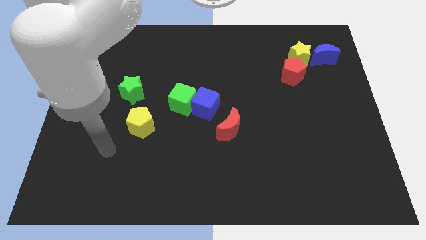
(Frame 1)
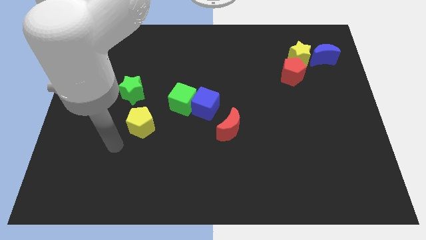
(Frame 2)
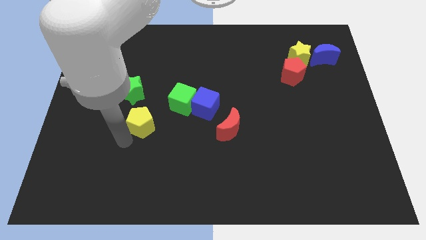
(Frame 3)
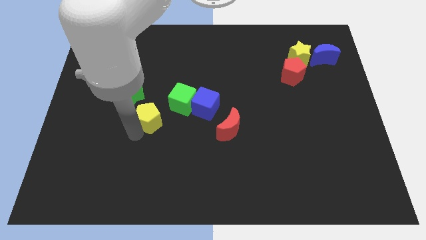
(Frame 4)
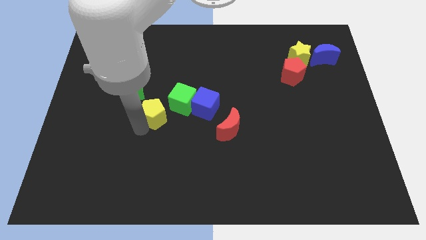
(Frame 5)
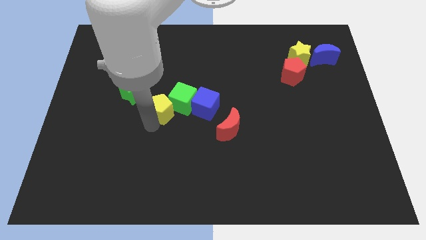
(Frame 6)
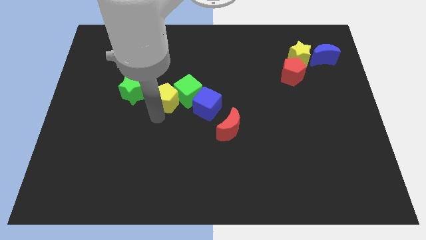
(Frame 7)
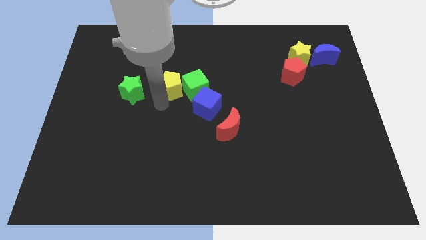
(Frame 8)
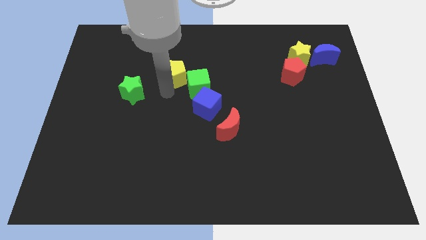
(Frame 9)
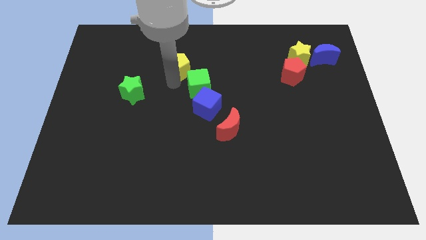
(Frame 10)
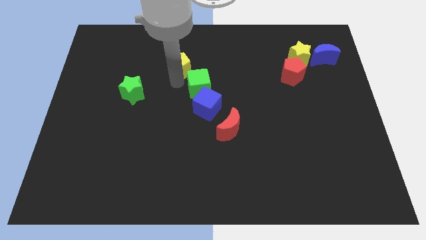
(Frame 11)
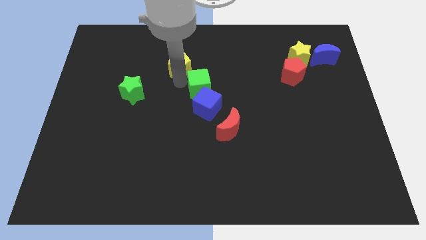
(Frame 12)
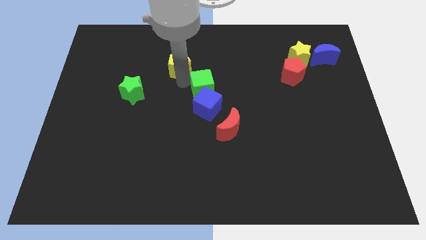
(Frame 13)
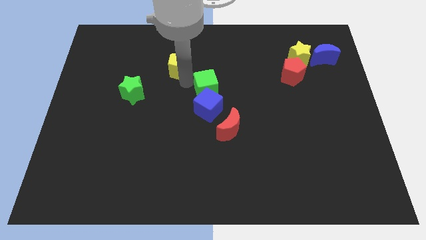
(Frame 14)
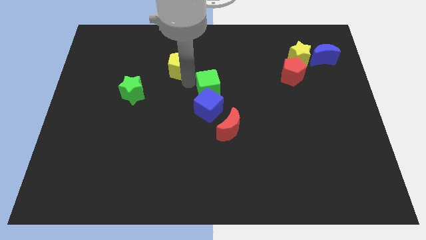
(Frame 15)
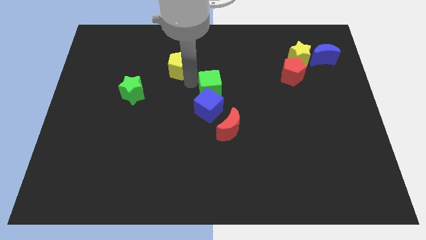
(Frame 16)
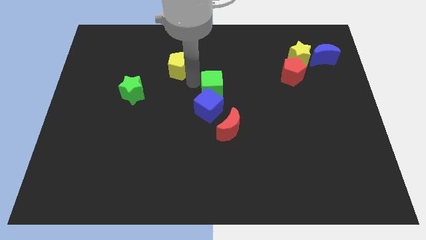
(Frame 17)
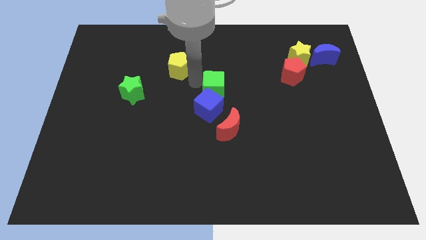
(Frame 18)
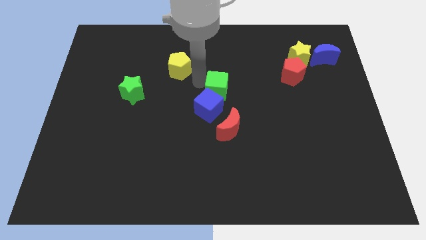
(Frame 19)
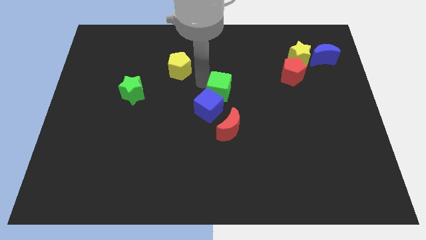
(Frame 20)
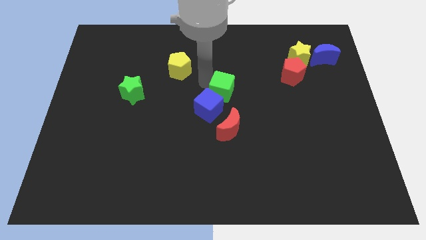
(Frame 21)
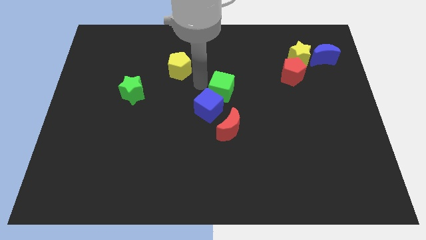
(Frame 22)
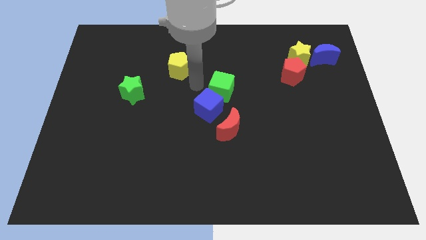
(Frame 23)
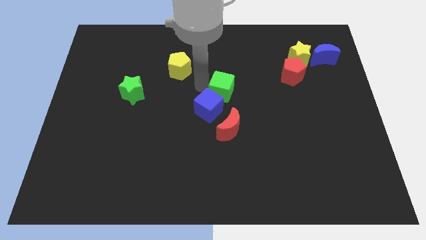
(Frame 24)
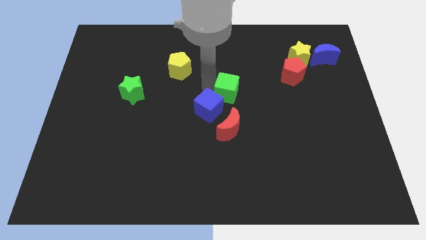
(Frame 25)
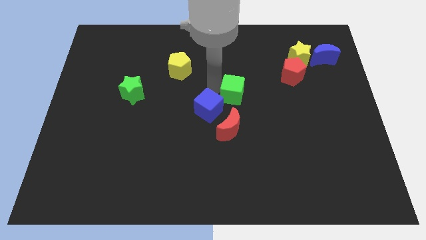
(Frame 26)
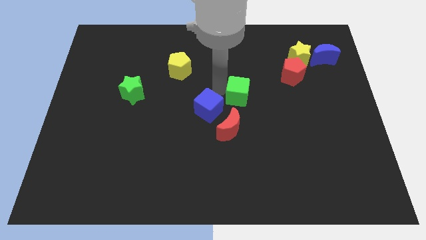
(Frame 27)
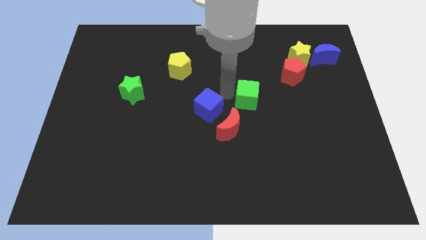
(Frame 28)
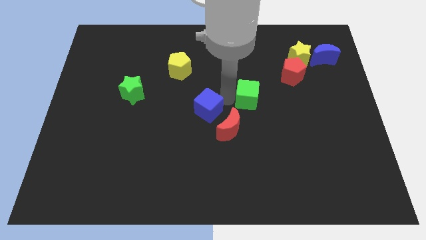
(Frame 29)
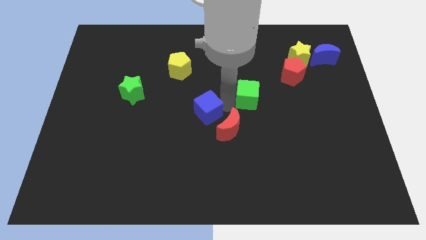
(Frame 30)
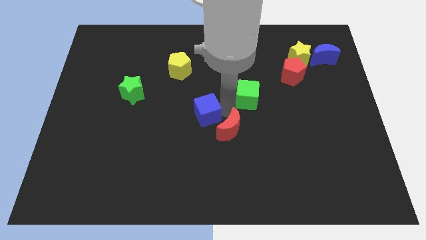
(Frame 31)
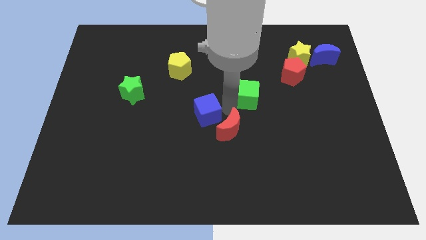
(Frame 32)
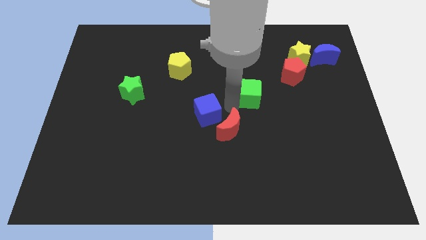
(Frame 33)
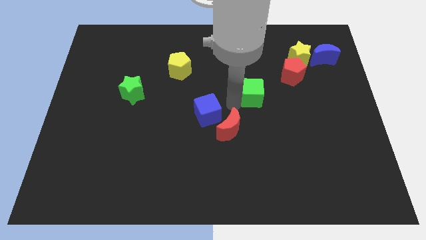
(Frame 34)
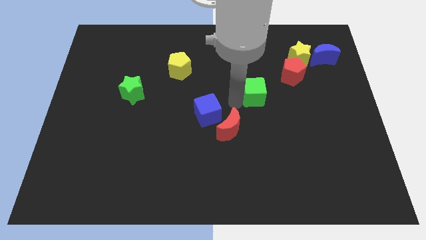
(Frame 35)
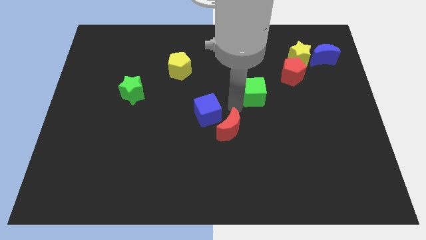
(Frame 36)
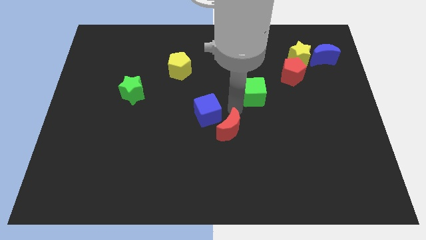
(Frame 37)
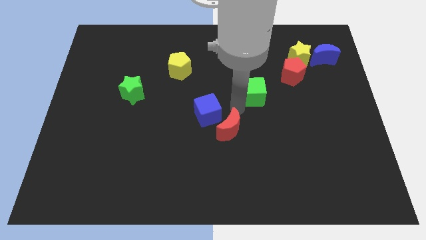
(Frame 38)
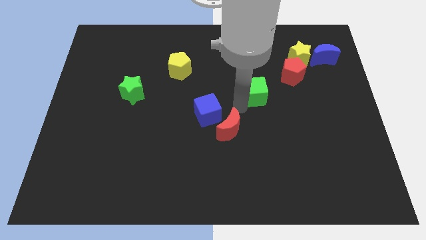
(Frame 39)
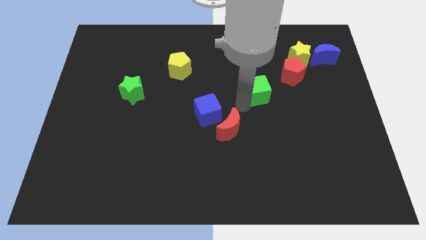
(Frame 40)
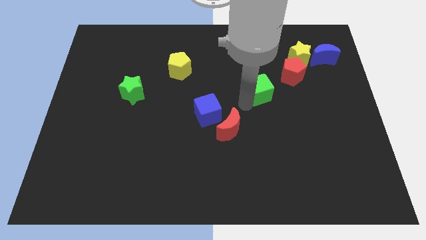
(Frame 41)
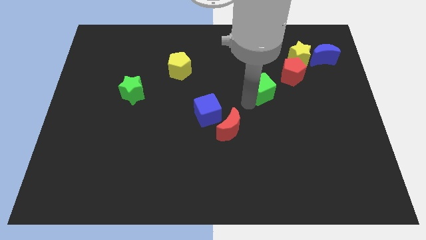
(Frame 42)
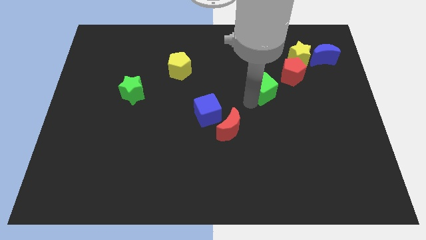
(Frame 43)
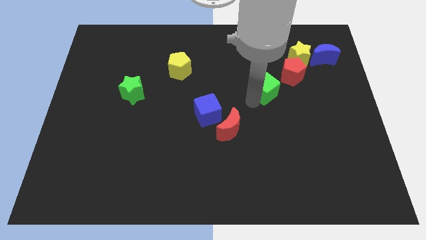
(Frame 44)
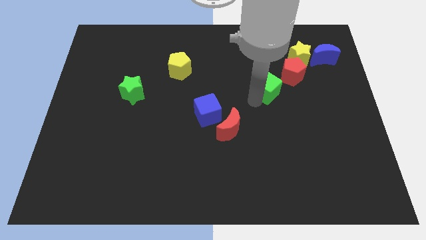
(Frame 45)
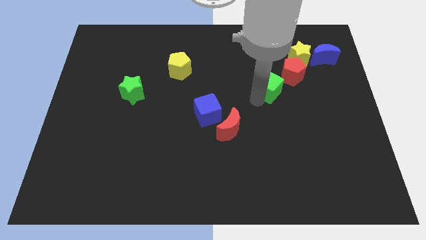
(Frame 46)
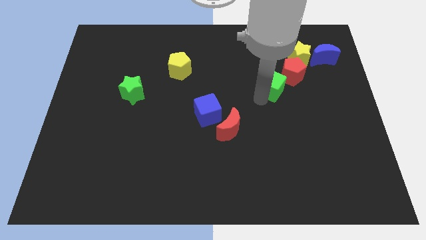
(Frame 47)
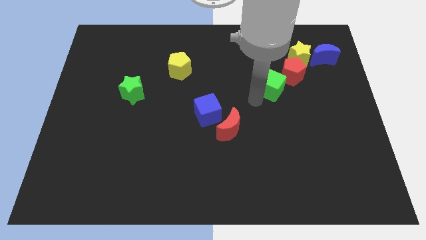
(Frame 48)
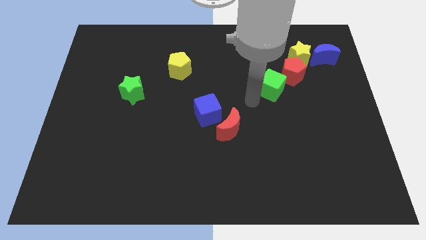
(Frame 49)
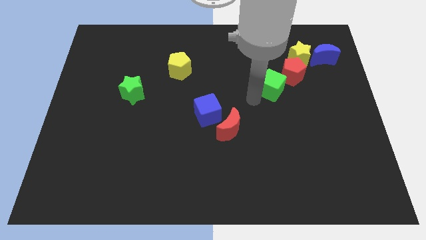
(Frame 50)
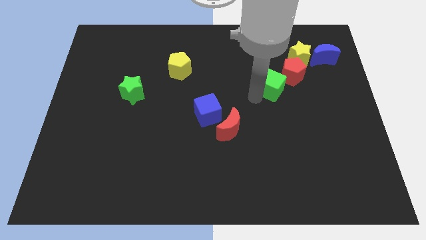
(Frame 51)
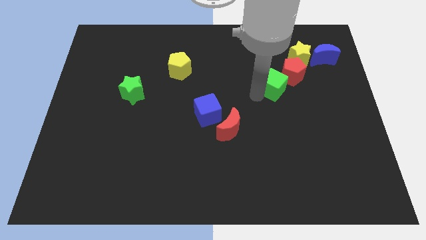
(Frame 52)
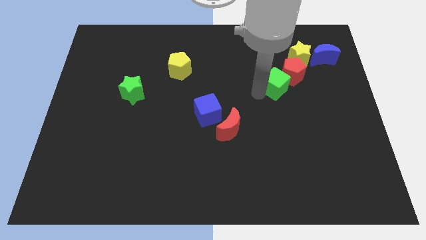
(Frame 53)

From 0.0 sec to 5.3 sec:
put the green cube next to the red pentagon

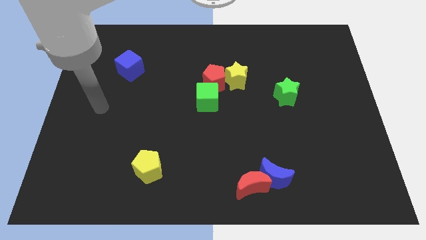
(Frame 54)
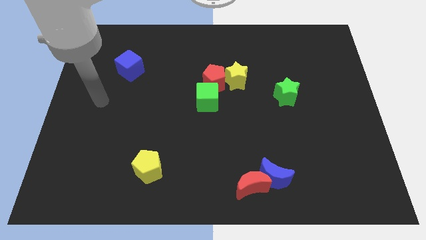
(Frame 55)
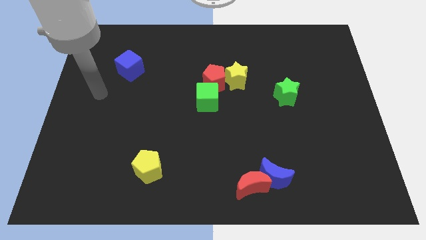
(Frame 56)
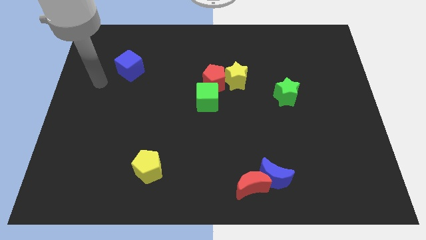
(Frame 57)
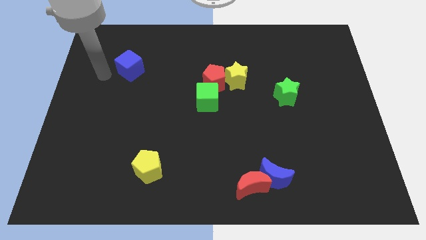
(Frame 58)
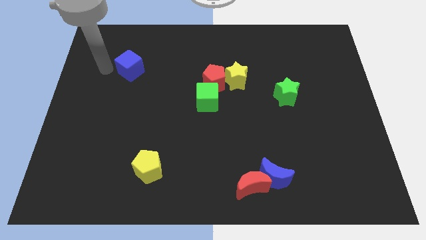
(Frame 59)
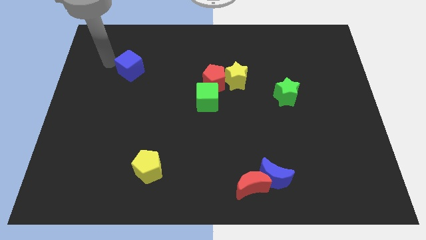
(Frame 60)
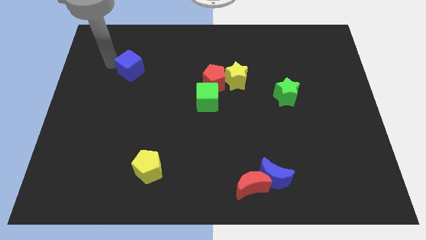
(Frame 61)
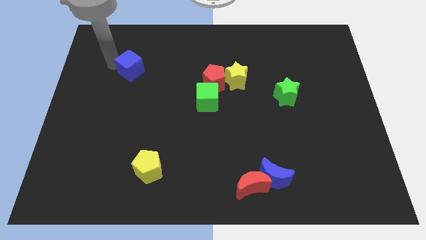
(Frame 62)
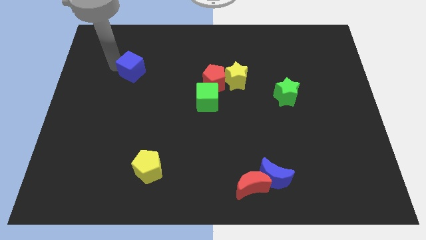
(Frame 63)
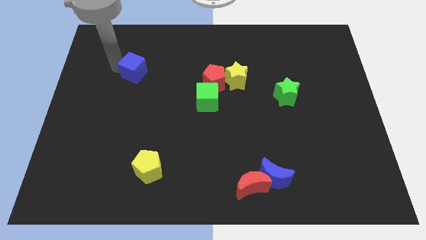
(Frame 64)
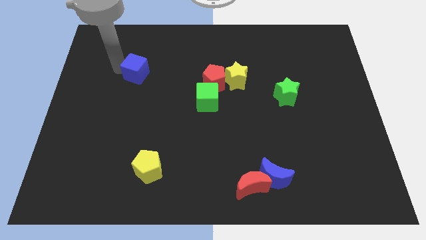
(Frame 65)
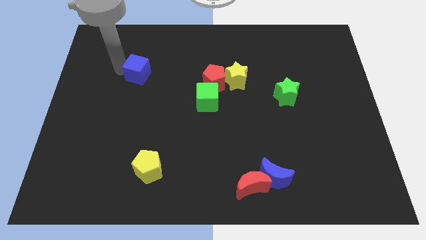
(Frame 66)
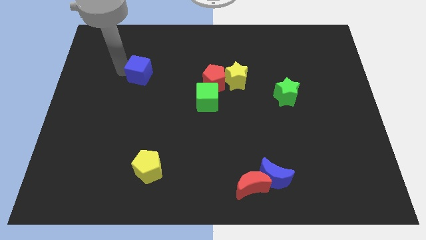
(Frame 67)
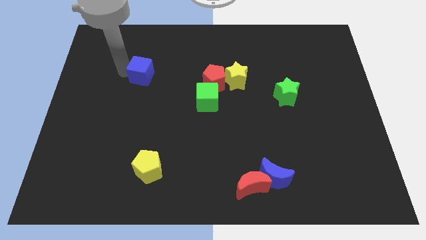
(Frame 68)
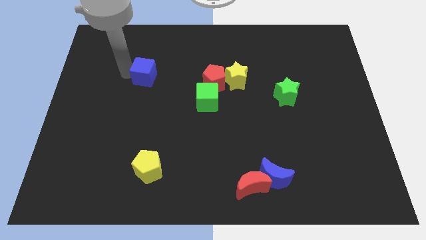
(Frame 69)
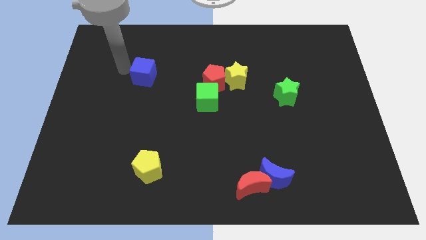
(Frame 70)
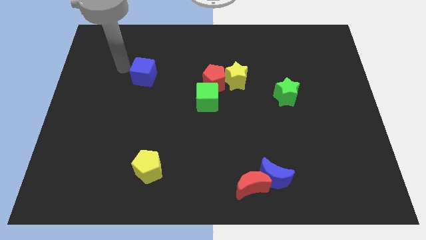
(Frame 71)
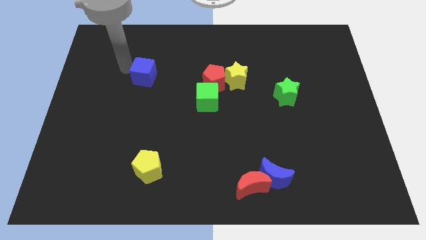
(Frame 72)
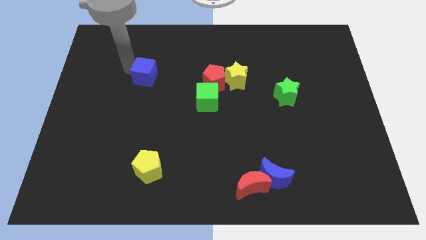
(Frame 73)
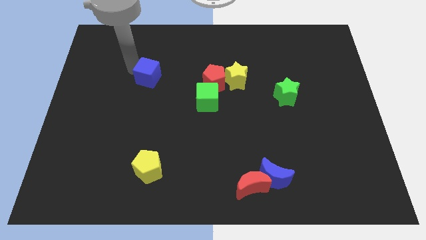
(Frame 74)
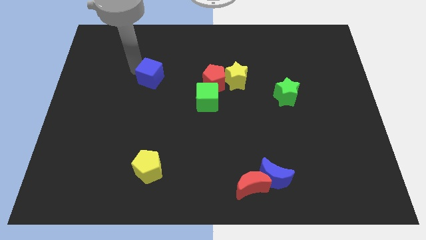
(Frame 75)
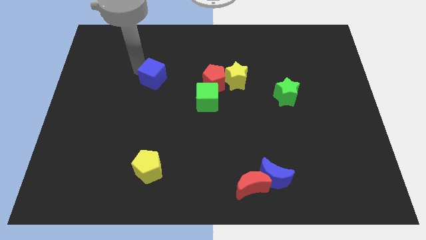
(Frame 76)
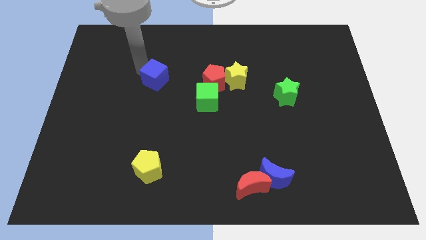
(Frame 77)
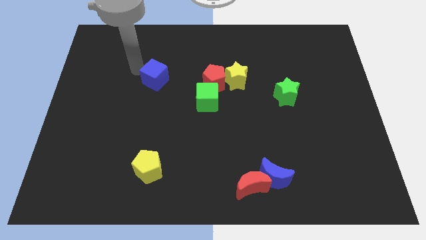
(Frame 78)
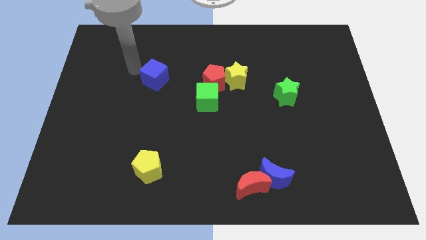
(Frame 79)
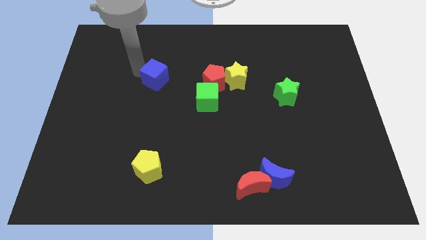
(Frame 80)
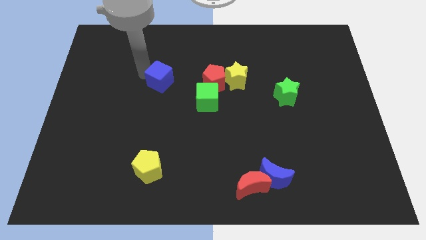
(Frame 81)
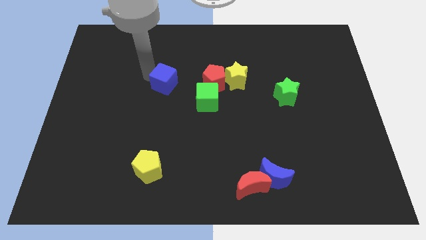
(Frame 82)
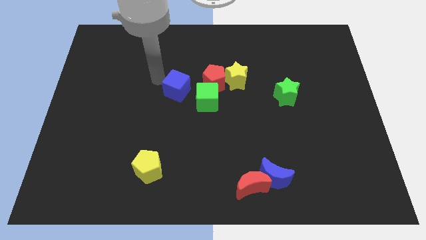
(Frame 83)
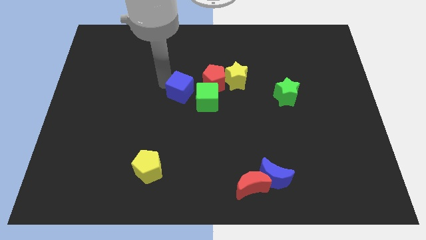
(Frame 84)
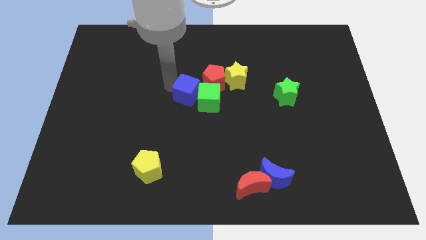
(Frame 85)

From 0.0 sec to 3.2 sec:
move the blue cube close to the green cube
